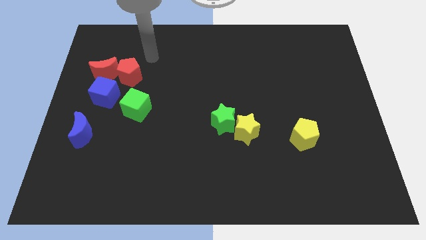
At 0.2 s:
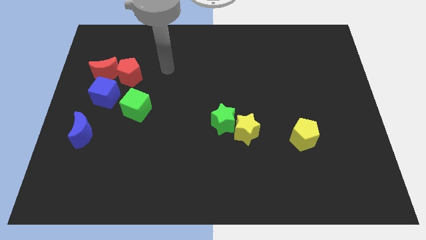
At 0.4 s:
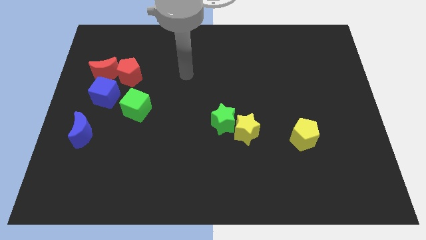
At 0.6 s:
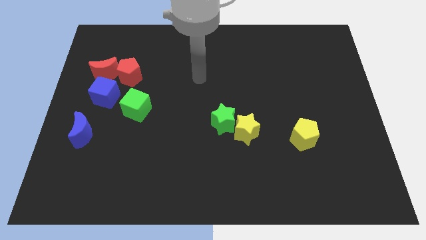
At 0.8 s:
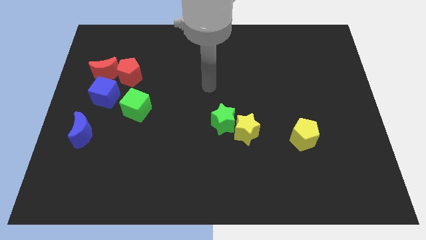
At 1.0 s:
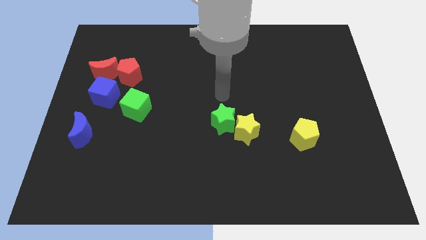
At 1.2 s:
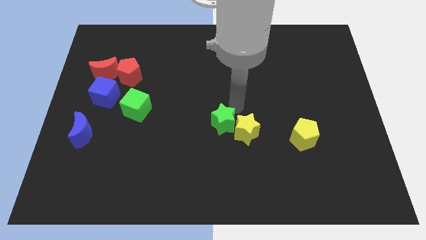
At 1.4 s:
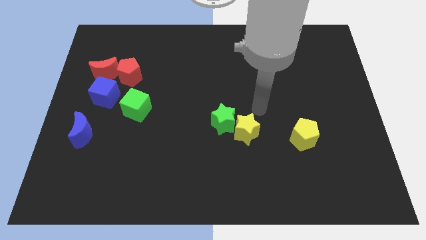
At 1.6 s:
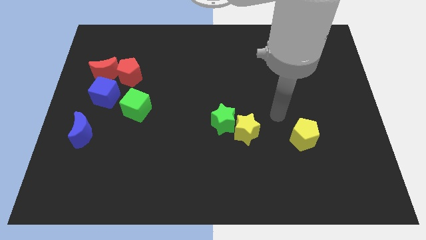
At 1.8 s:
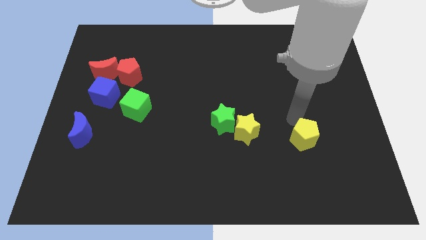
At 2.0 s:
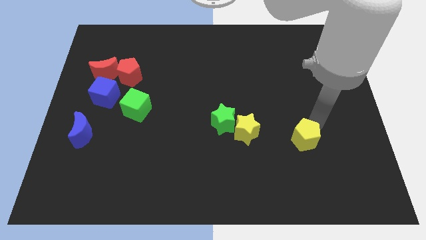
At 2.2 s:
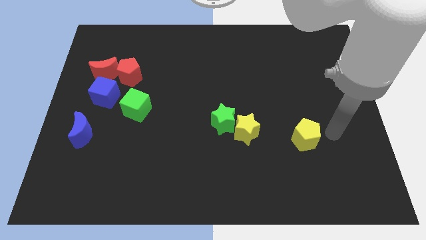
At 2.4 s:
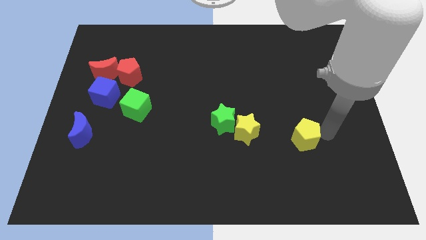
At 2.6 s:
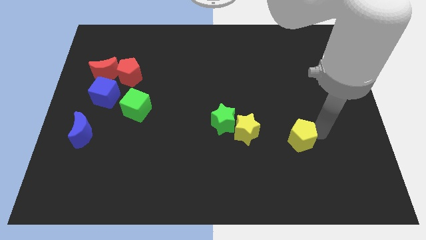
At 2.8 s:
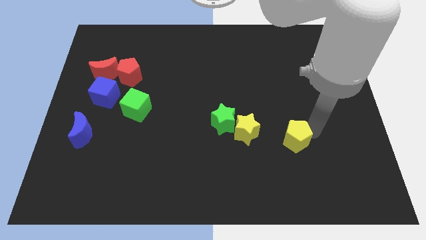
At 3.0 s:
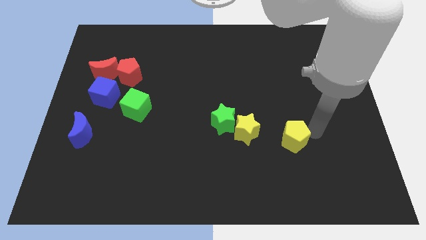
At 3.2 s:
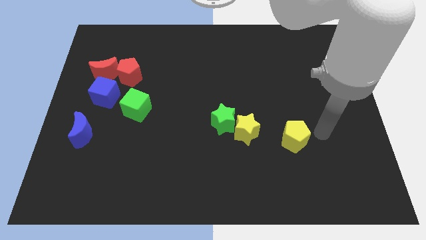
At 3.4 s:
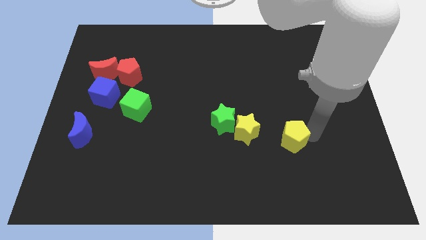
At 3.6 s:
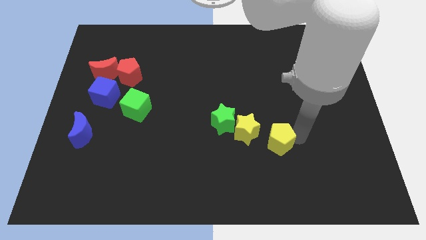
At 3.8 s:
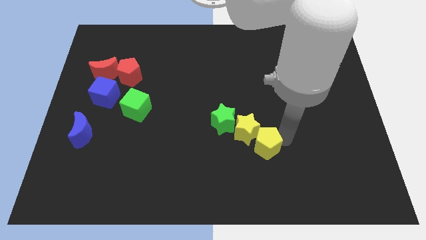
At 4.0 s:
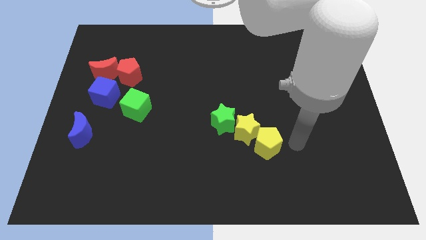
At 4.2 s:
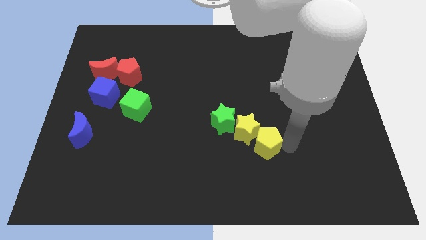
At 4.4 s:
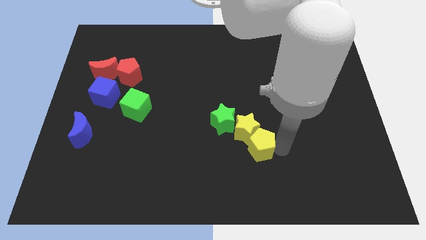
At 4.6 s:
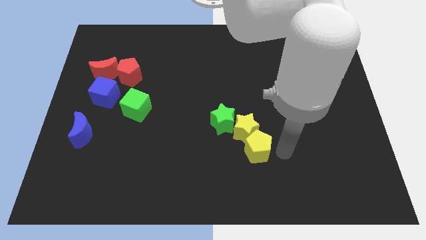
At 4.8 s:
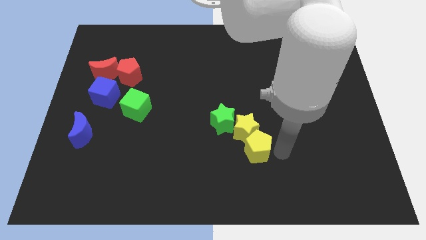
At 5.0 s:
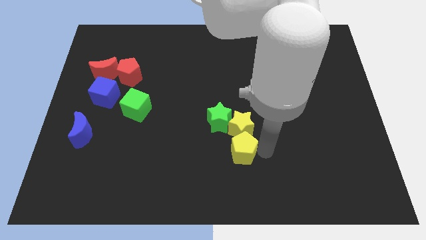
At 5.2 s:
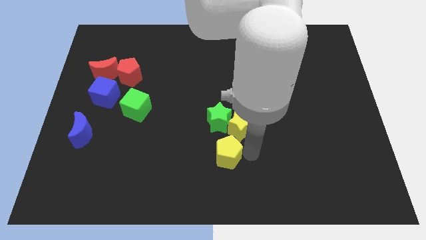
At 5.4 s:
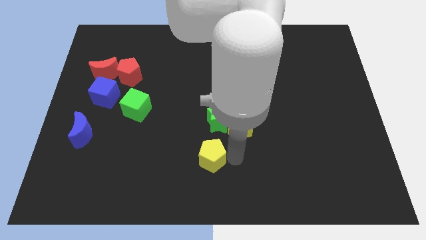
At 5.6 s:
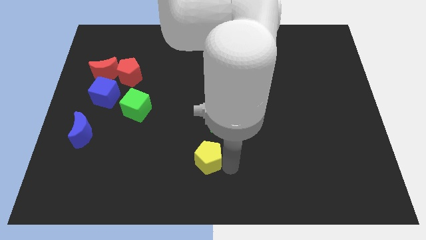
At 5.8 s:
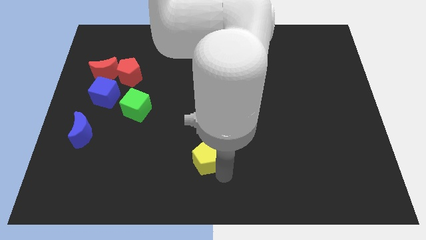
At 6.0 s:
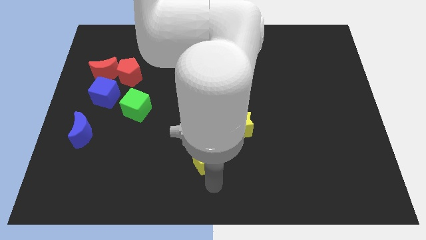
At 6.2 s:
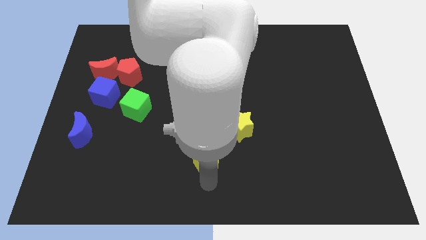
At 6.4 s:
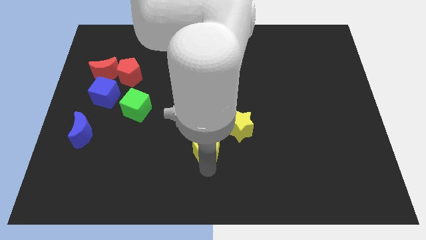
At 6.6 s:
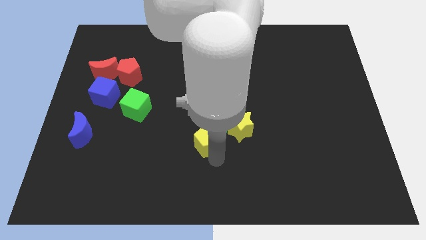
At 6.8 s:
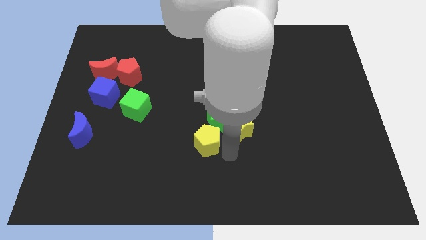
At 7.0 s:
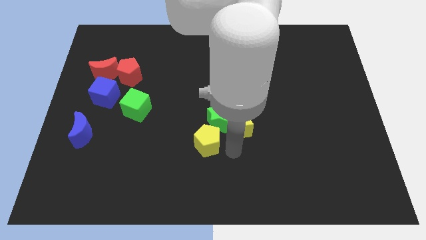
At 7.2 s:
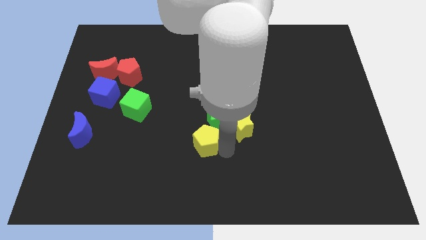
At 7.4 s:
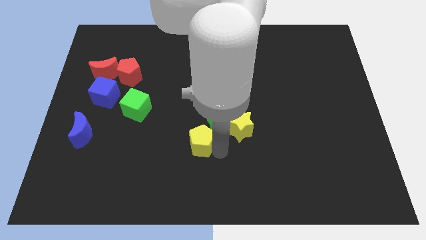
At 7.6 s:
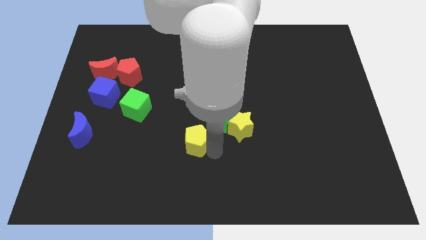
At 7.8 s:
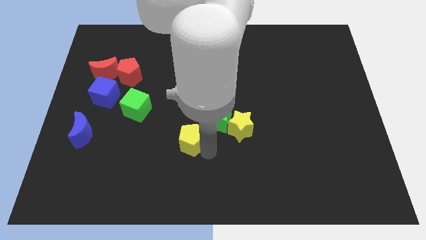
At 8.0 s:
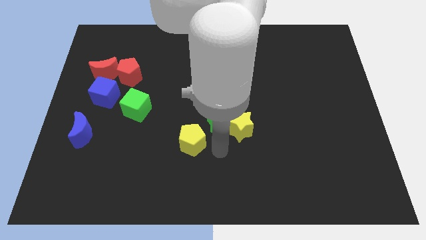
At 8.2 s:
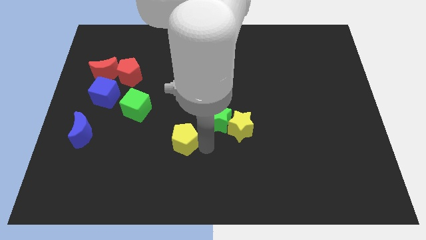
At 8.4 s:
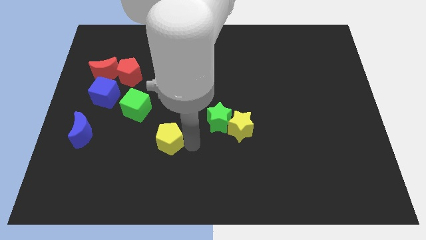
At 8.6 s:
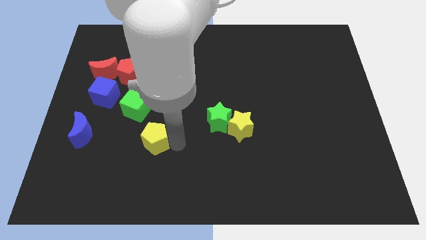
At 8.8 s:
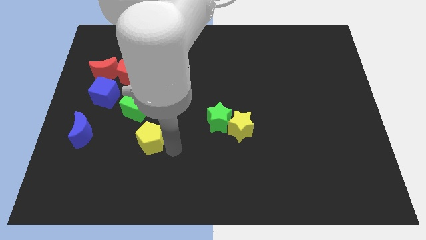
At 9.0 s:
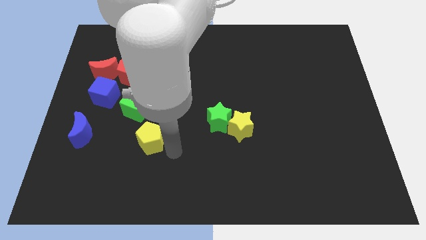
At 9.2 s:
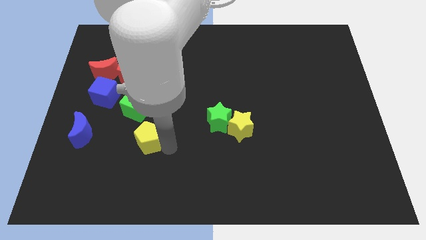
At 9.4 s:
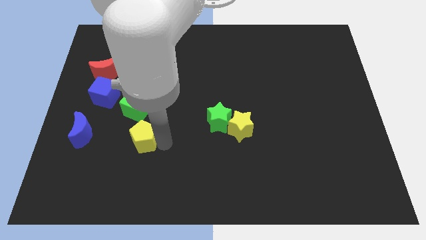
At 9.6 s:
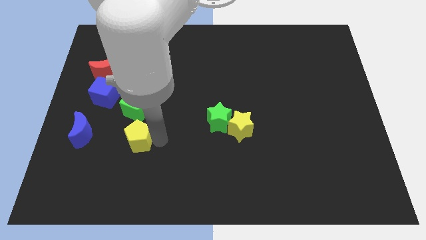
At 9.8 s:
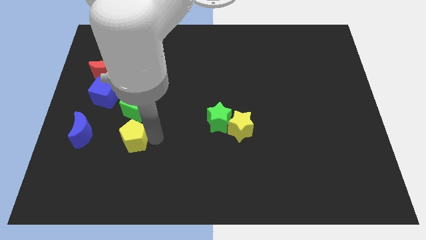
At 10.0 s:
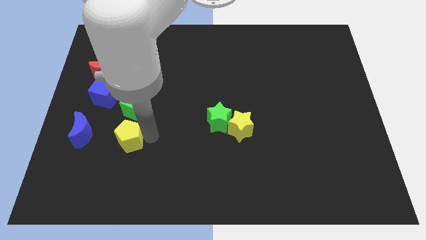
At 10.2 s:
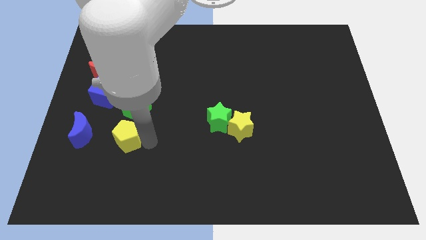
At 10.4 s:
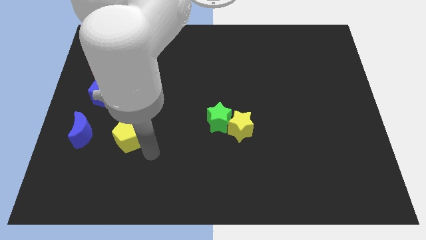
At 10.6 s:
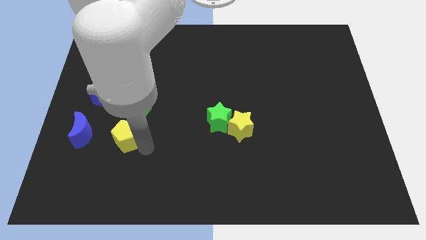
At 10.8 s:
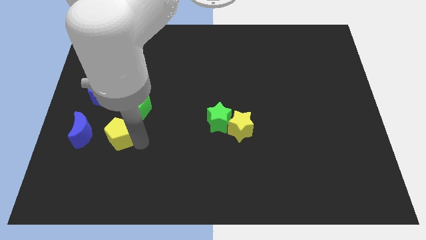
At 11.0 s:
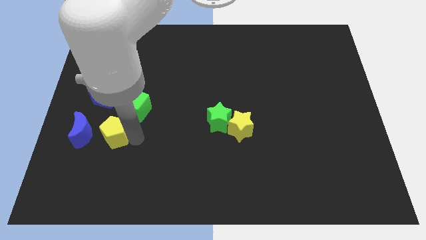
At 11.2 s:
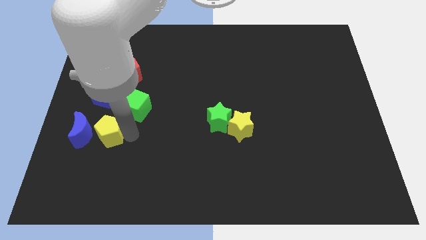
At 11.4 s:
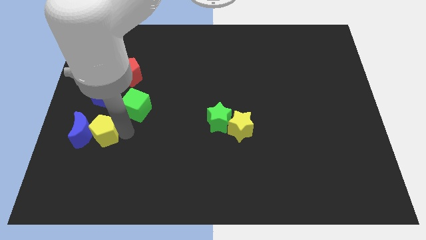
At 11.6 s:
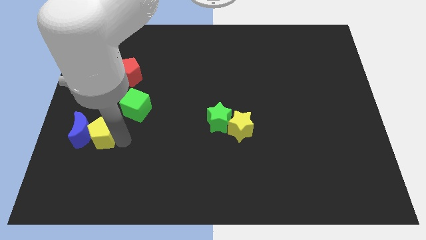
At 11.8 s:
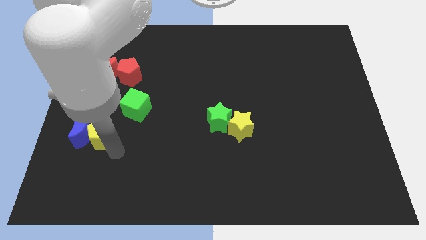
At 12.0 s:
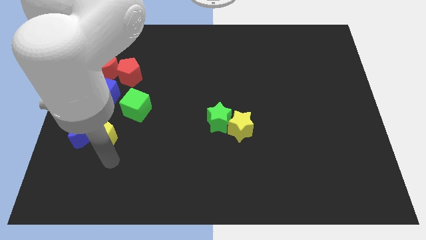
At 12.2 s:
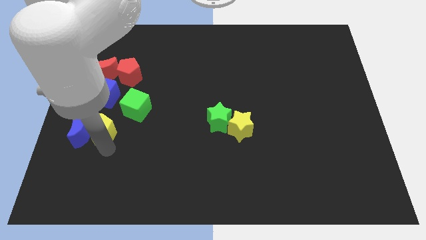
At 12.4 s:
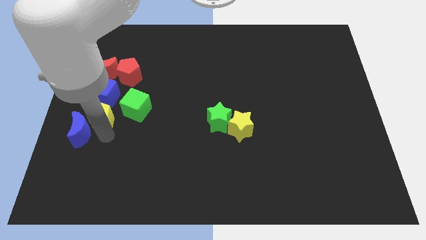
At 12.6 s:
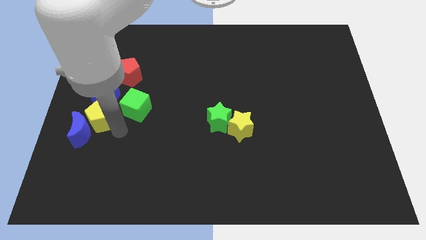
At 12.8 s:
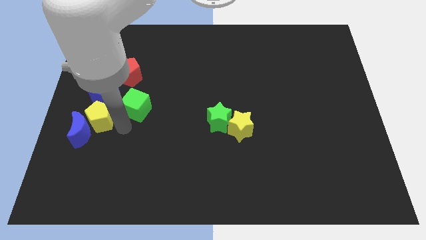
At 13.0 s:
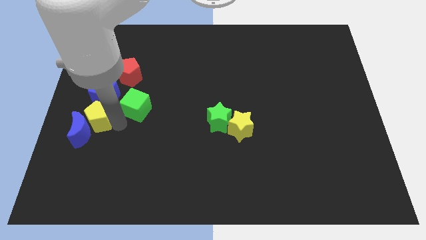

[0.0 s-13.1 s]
put the yellow pentagon to the left side

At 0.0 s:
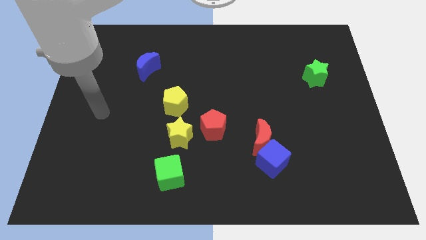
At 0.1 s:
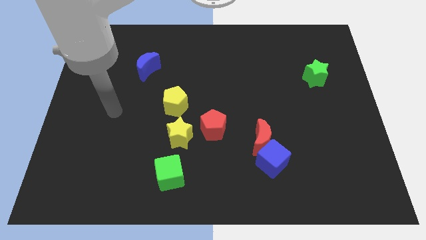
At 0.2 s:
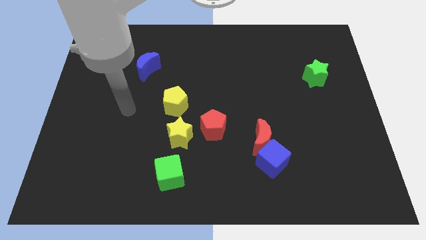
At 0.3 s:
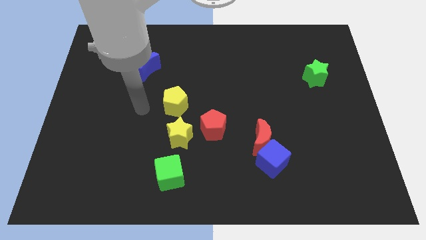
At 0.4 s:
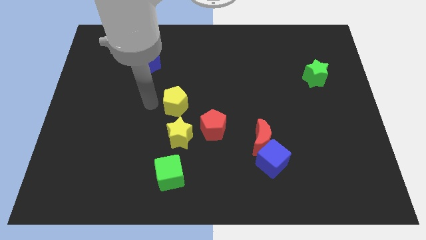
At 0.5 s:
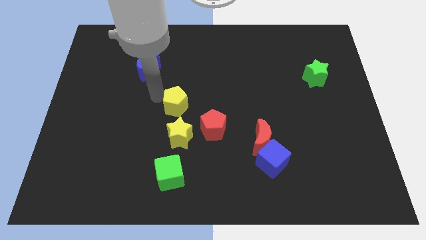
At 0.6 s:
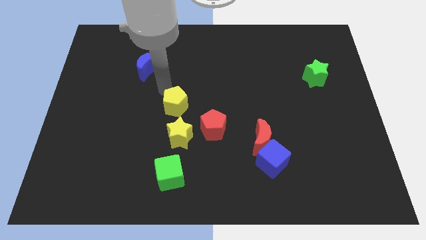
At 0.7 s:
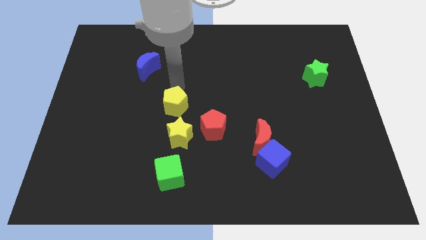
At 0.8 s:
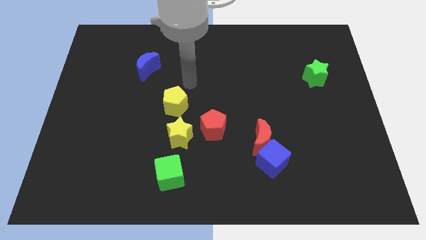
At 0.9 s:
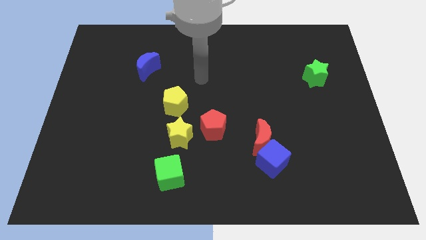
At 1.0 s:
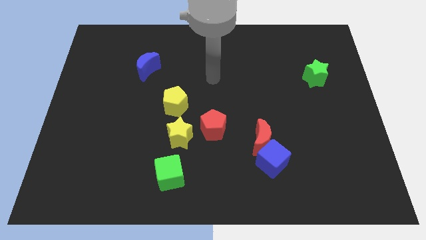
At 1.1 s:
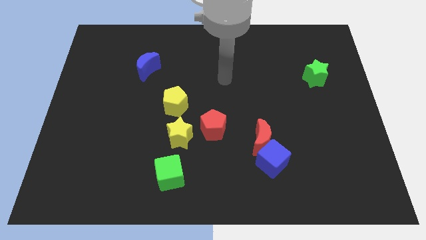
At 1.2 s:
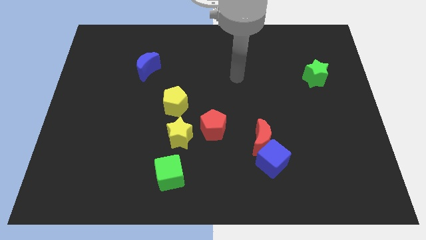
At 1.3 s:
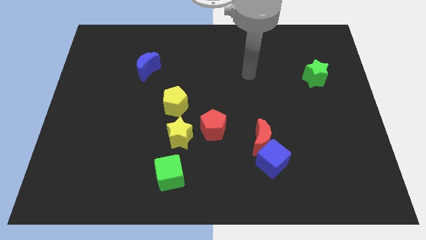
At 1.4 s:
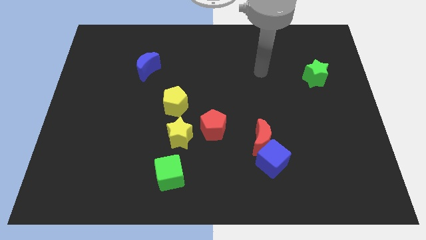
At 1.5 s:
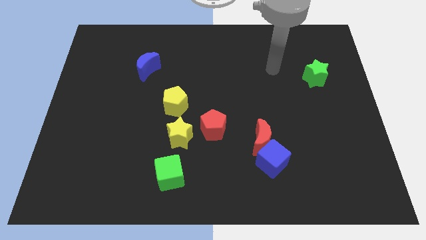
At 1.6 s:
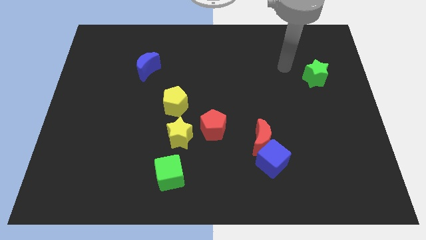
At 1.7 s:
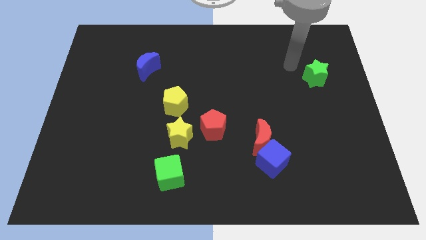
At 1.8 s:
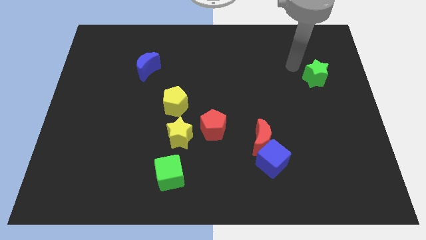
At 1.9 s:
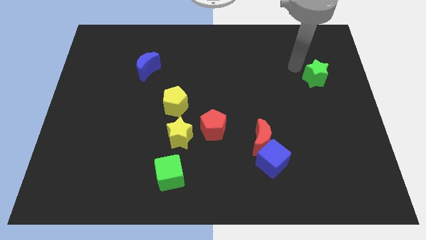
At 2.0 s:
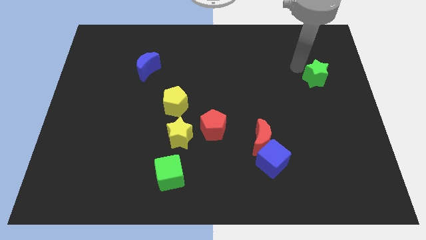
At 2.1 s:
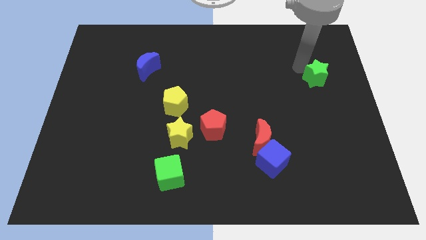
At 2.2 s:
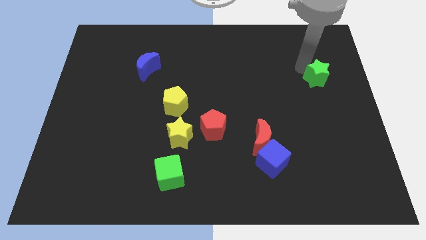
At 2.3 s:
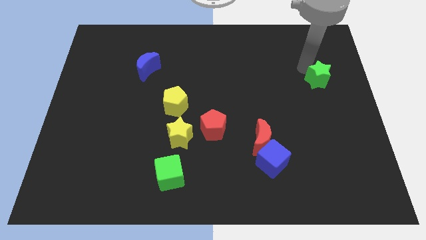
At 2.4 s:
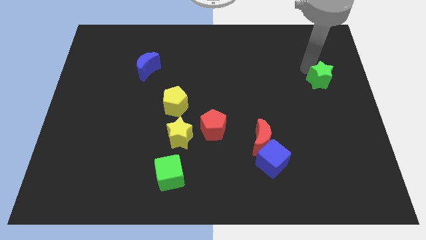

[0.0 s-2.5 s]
move the green star to the right side of the board
